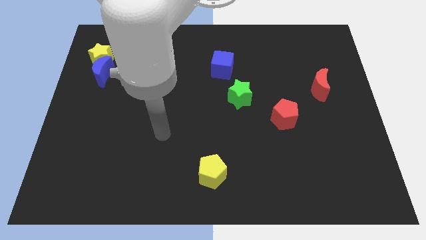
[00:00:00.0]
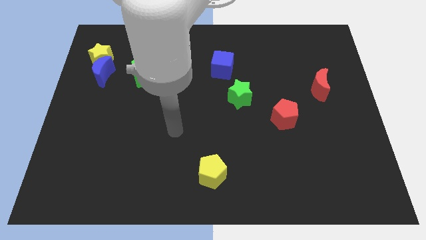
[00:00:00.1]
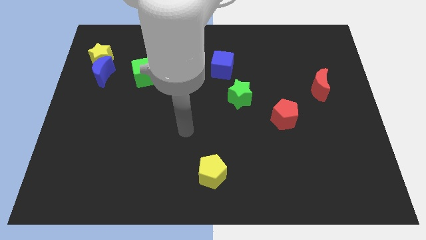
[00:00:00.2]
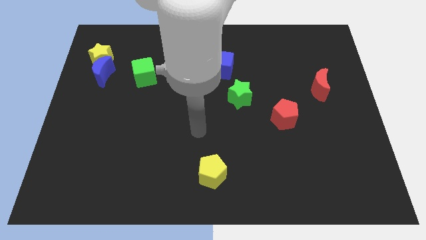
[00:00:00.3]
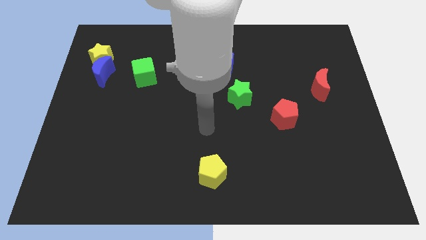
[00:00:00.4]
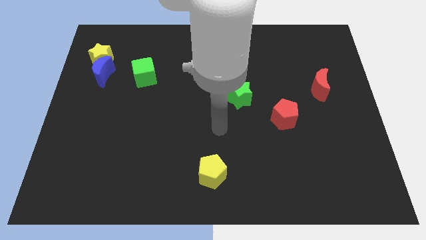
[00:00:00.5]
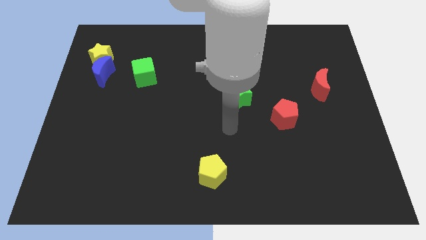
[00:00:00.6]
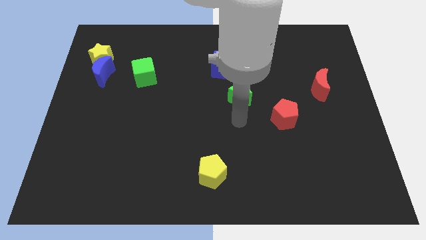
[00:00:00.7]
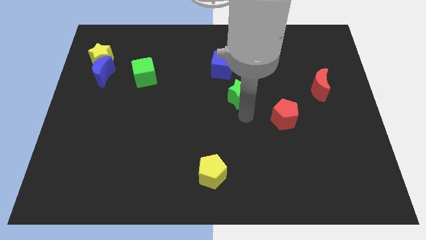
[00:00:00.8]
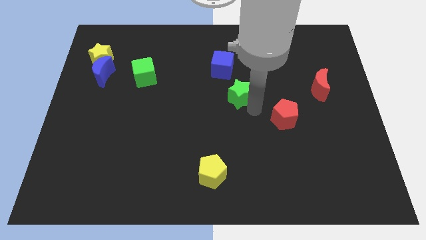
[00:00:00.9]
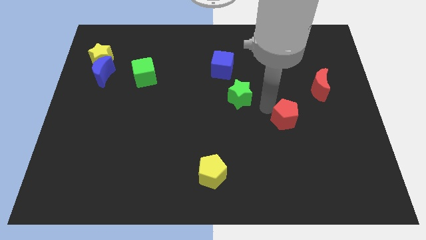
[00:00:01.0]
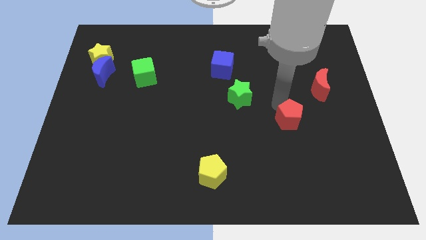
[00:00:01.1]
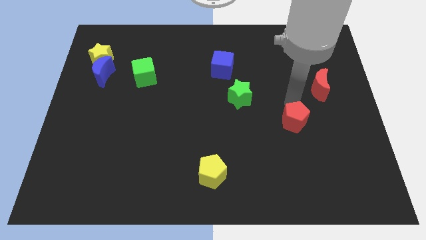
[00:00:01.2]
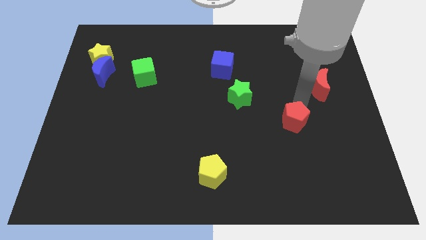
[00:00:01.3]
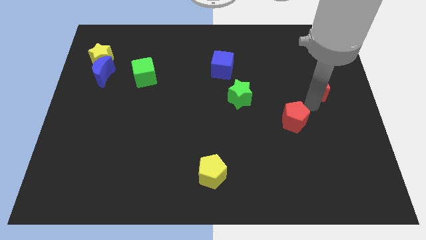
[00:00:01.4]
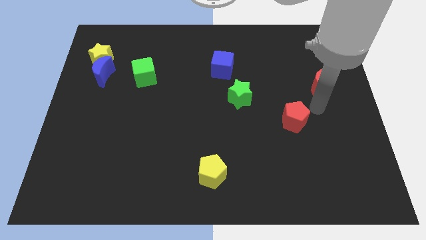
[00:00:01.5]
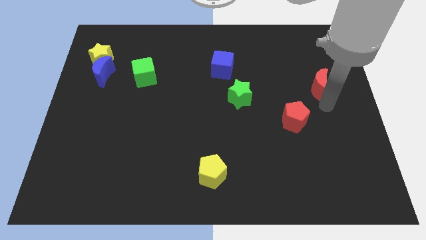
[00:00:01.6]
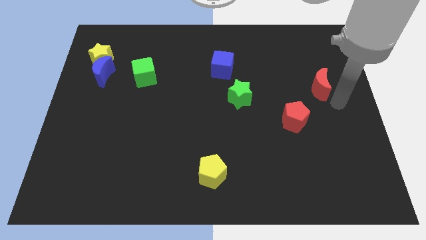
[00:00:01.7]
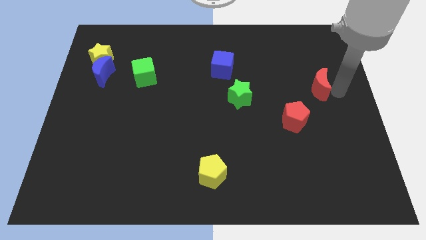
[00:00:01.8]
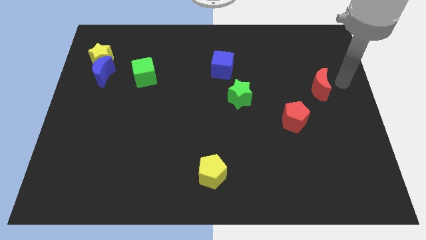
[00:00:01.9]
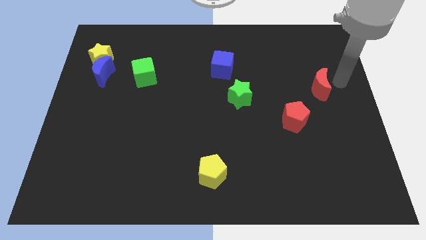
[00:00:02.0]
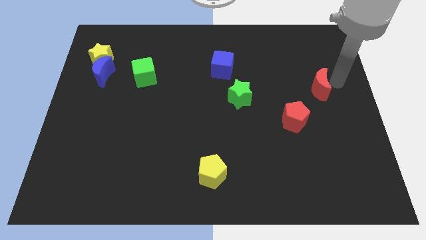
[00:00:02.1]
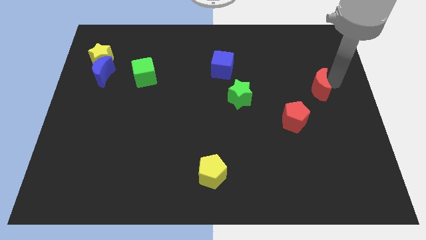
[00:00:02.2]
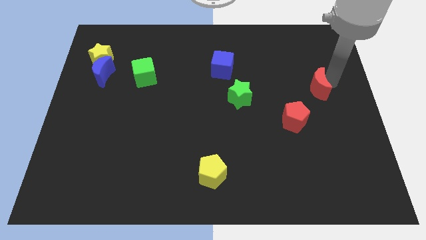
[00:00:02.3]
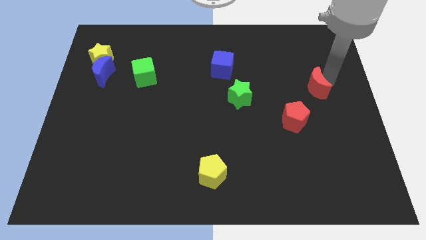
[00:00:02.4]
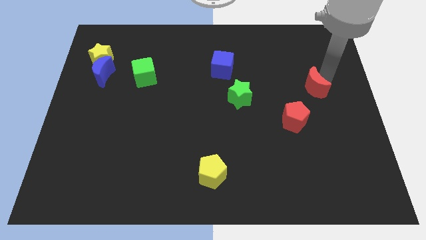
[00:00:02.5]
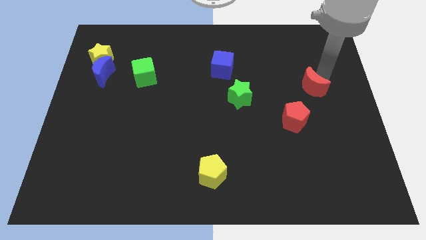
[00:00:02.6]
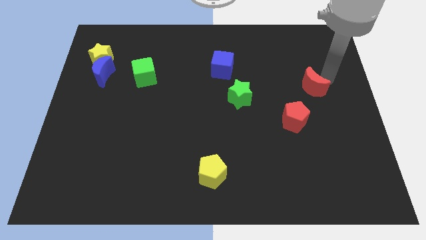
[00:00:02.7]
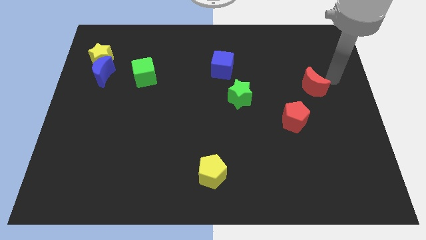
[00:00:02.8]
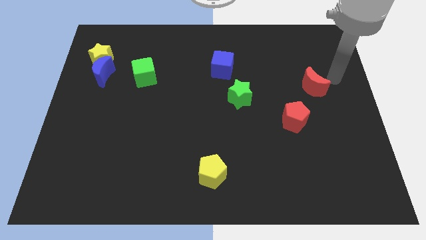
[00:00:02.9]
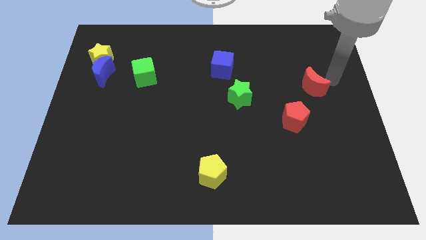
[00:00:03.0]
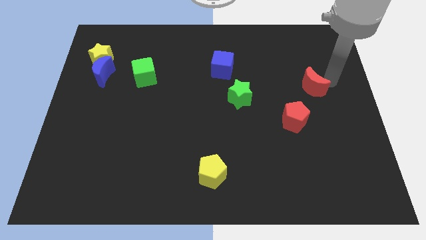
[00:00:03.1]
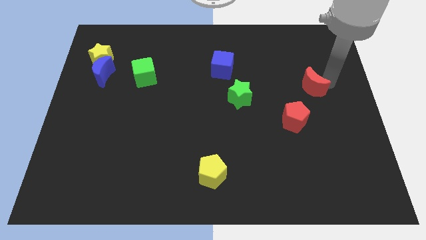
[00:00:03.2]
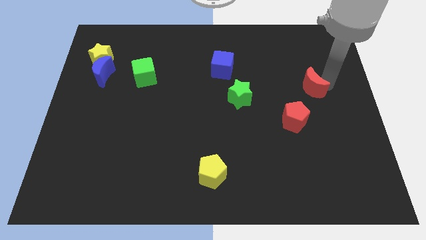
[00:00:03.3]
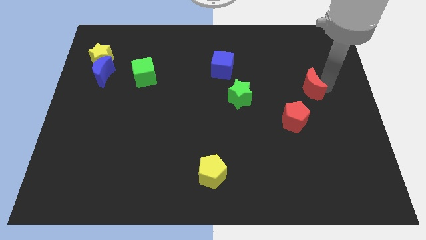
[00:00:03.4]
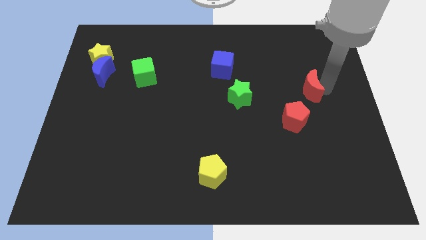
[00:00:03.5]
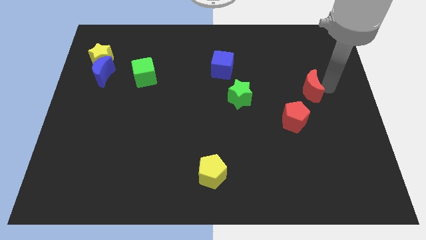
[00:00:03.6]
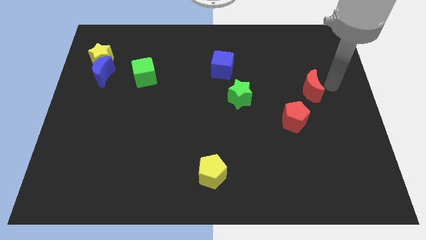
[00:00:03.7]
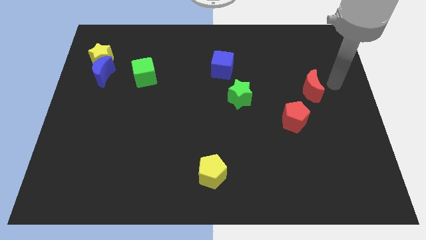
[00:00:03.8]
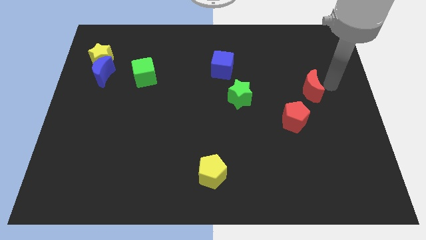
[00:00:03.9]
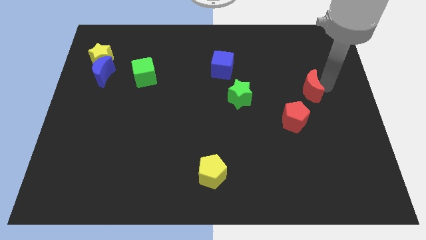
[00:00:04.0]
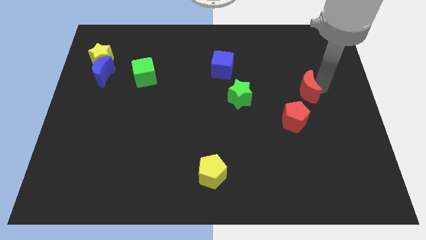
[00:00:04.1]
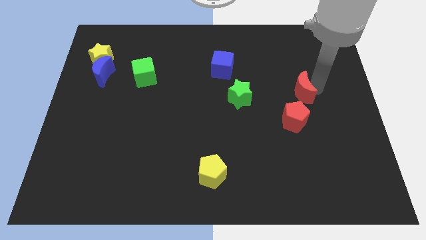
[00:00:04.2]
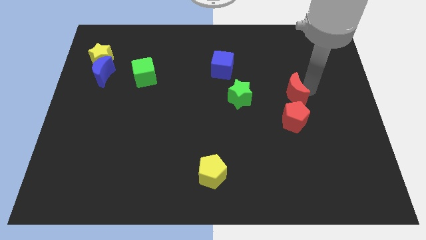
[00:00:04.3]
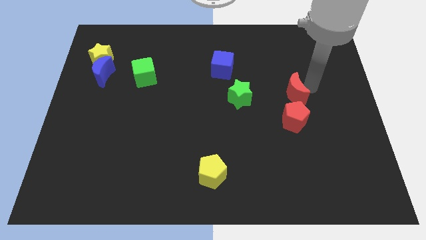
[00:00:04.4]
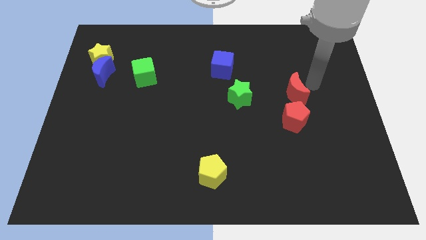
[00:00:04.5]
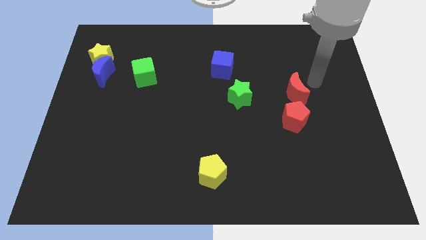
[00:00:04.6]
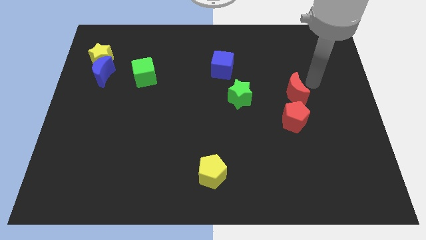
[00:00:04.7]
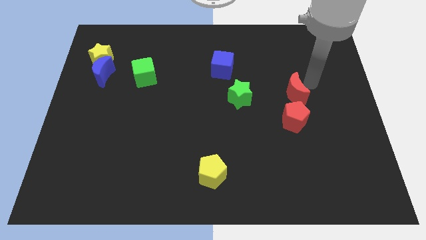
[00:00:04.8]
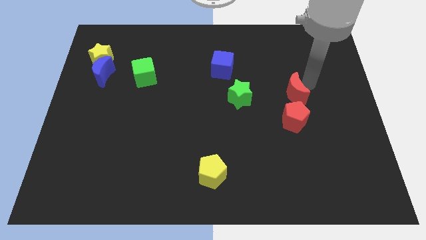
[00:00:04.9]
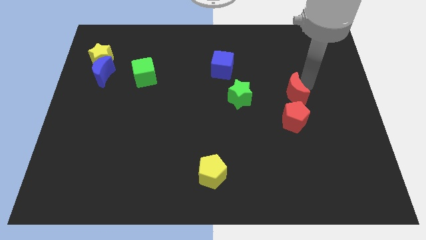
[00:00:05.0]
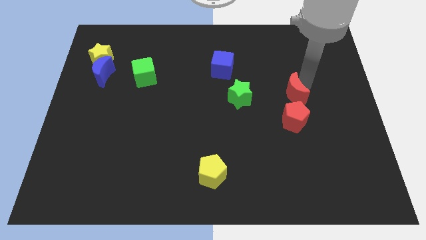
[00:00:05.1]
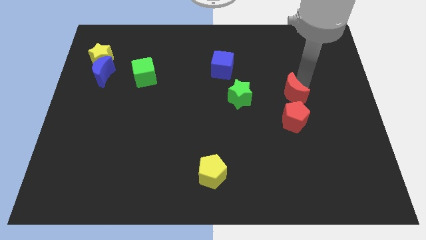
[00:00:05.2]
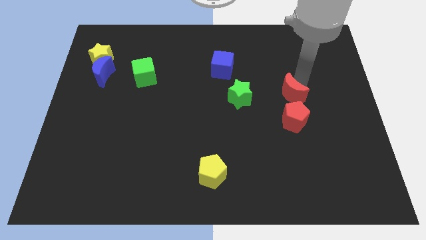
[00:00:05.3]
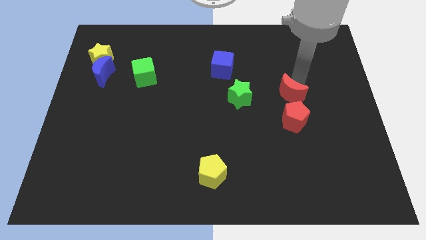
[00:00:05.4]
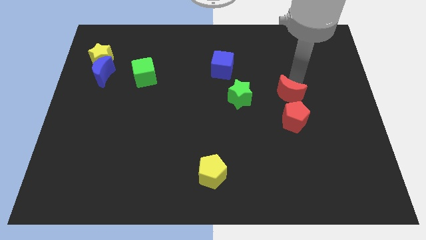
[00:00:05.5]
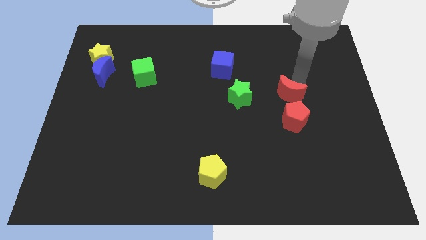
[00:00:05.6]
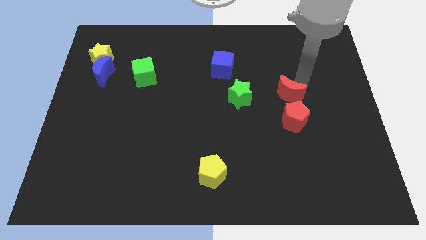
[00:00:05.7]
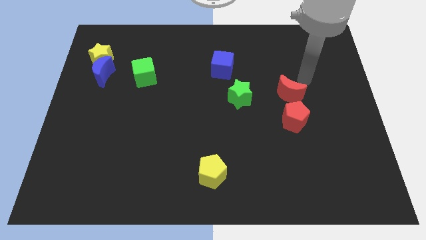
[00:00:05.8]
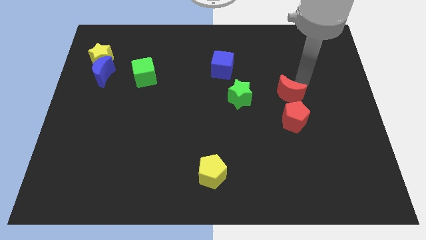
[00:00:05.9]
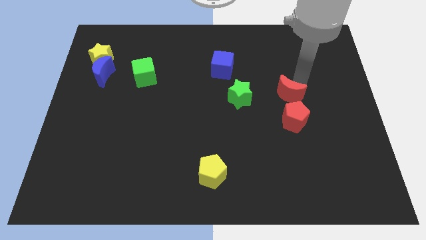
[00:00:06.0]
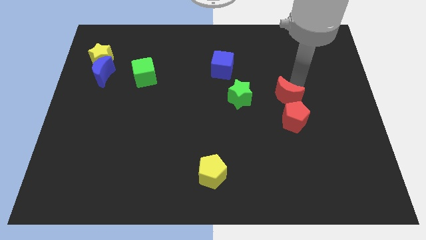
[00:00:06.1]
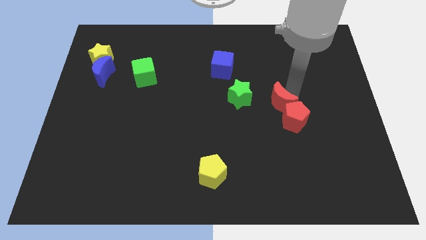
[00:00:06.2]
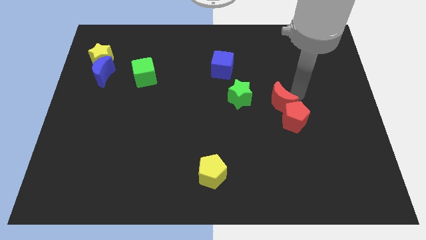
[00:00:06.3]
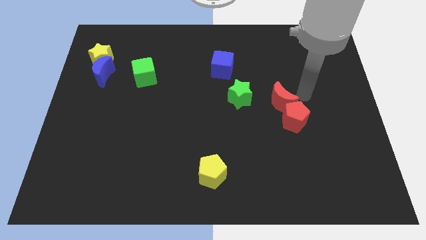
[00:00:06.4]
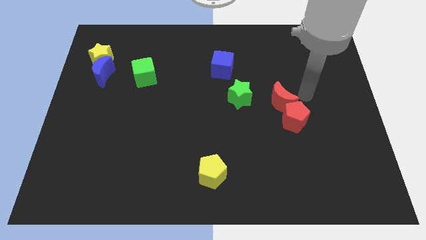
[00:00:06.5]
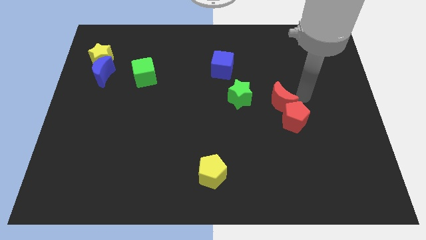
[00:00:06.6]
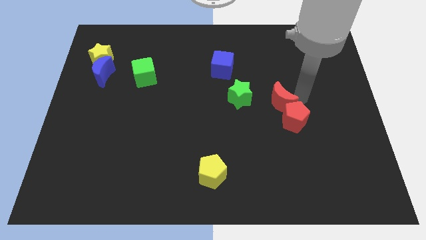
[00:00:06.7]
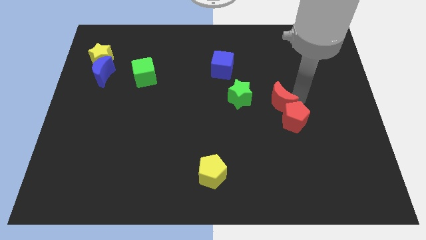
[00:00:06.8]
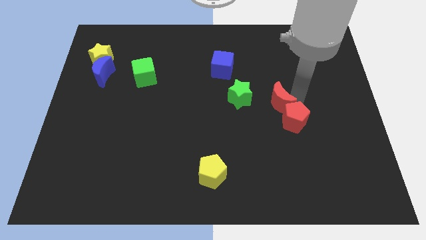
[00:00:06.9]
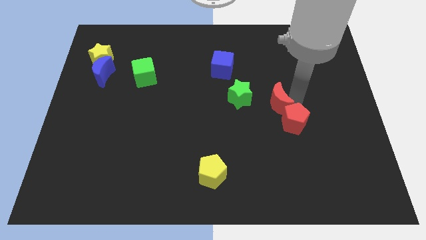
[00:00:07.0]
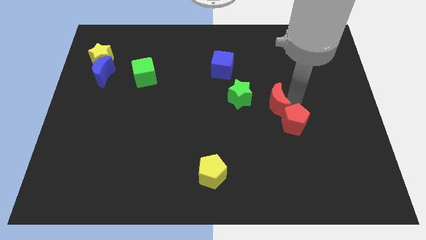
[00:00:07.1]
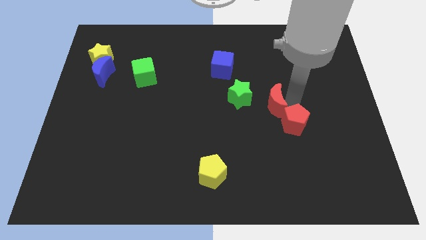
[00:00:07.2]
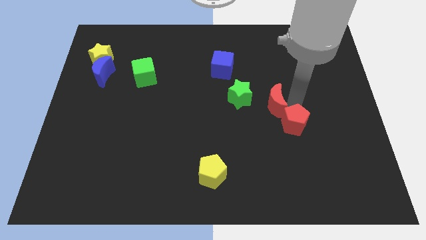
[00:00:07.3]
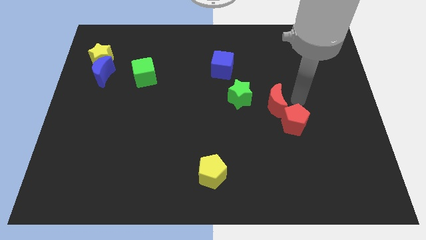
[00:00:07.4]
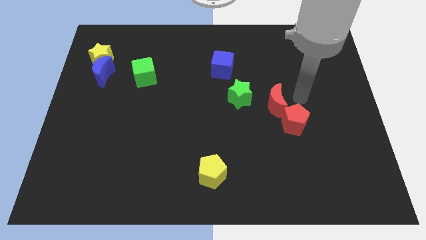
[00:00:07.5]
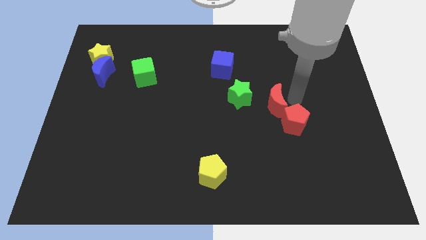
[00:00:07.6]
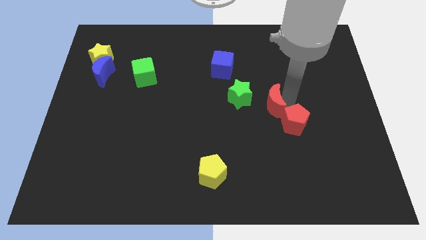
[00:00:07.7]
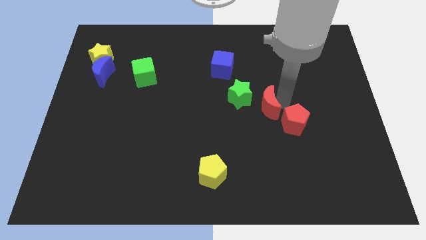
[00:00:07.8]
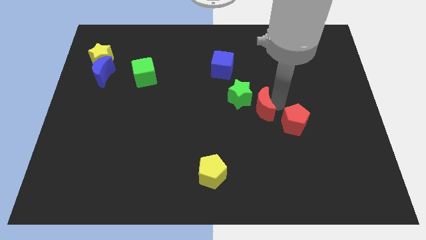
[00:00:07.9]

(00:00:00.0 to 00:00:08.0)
slide the red moon to the middle

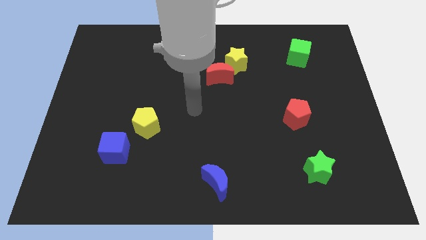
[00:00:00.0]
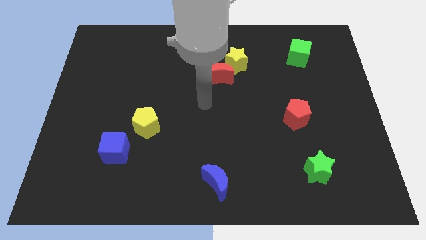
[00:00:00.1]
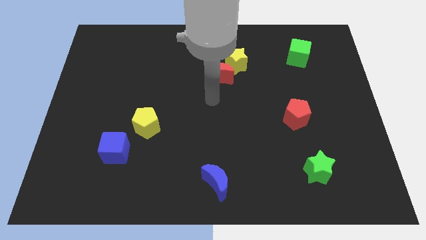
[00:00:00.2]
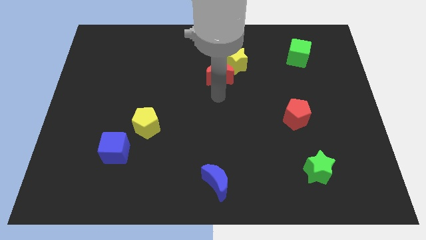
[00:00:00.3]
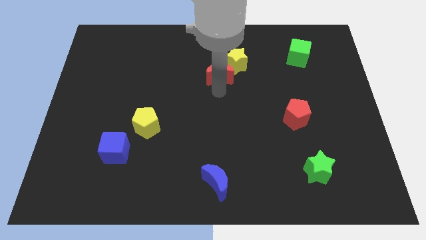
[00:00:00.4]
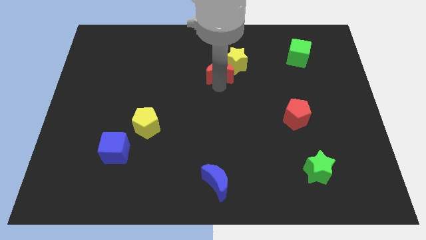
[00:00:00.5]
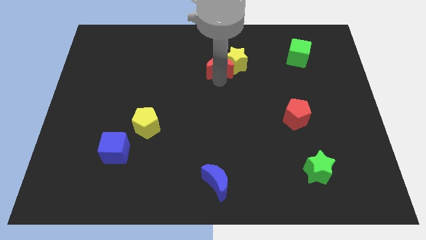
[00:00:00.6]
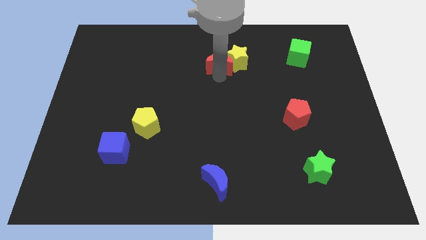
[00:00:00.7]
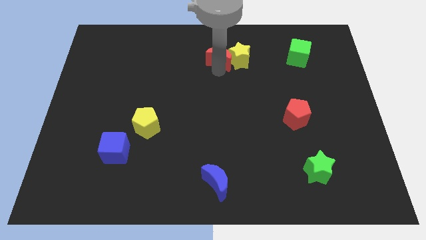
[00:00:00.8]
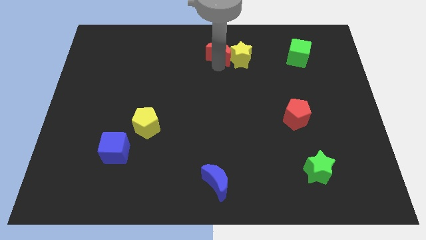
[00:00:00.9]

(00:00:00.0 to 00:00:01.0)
move the red moon to the top
